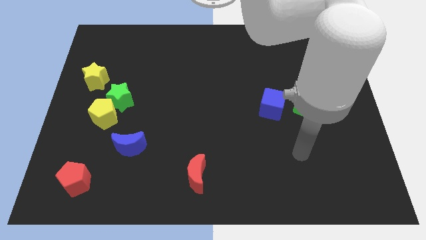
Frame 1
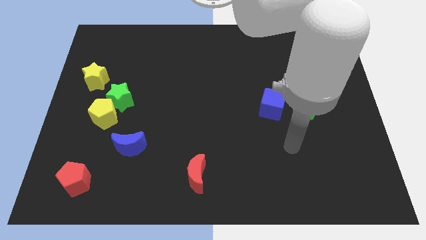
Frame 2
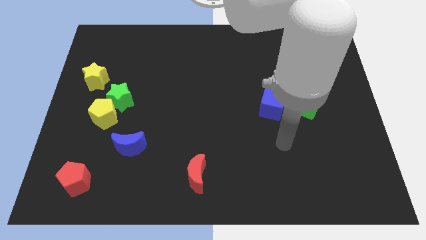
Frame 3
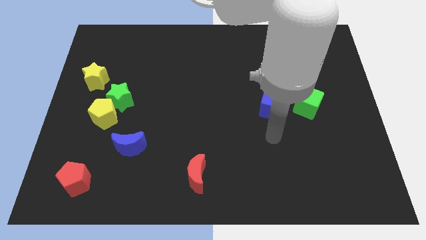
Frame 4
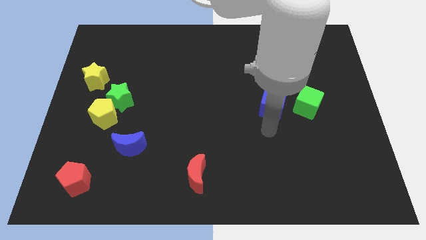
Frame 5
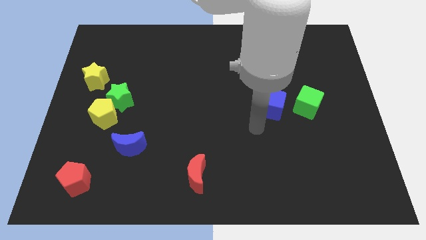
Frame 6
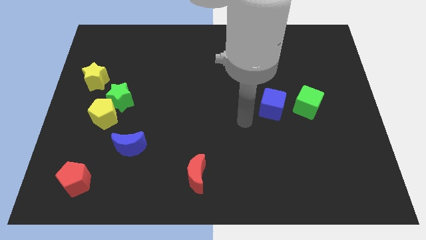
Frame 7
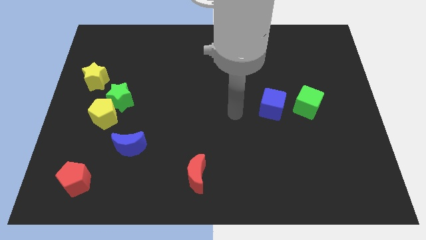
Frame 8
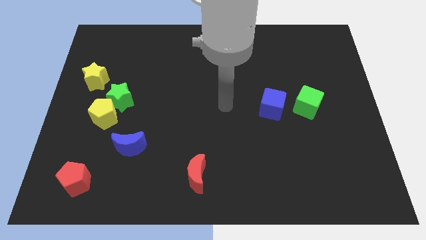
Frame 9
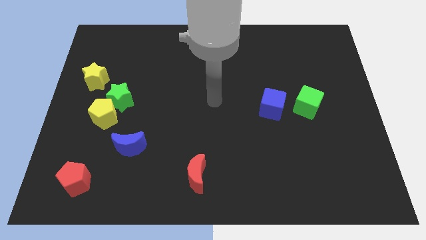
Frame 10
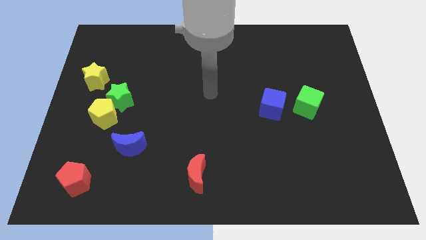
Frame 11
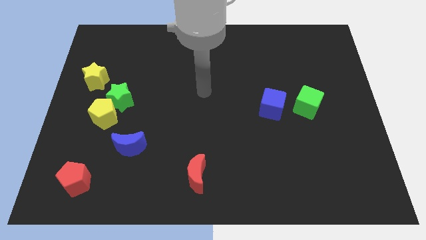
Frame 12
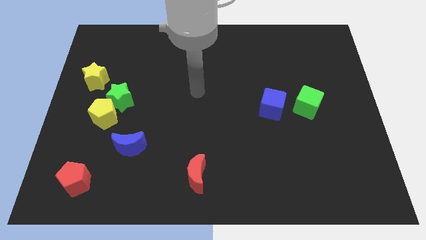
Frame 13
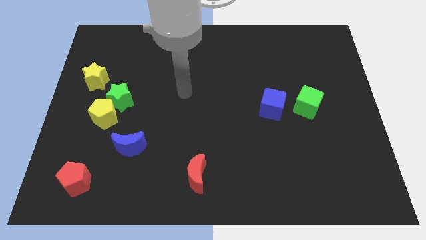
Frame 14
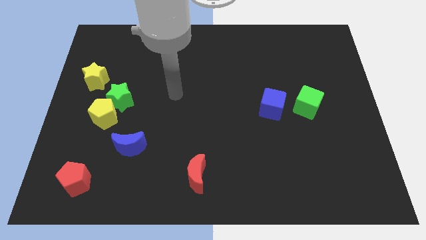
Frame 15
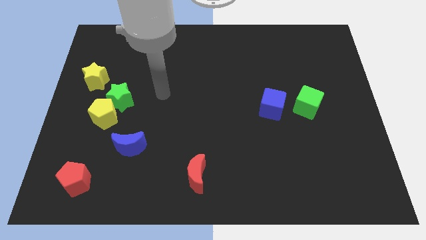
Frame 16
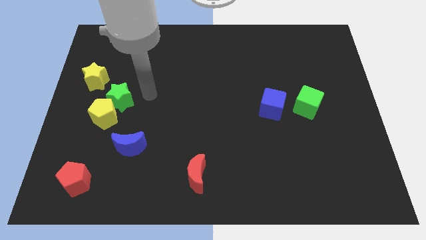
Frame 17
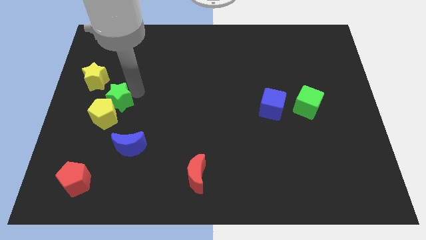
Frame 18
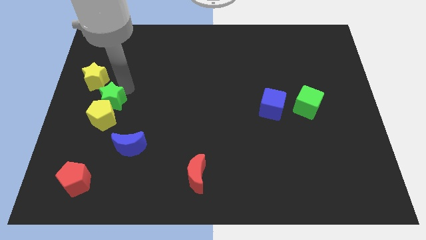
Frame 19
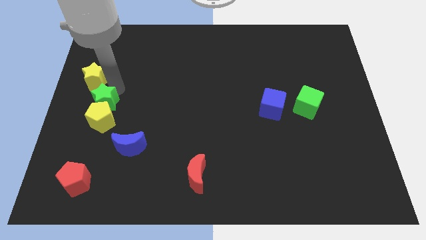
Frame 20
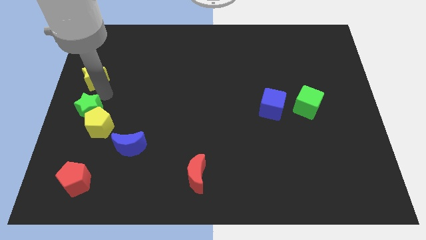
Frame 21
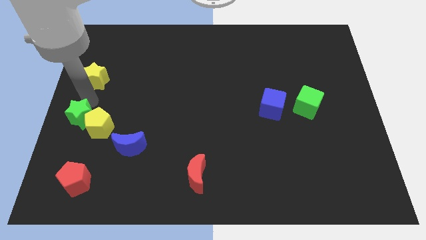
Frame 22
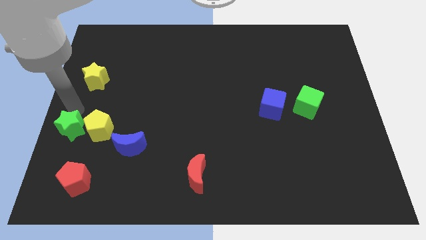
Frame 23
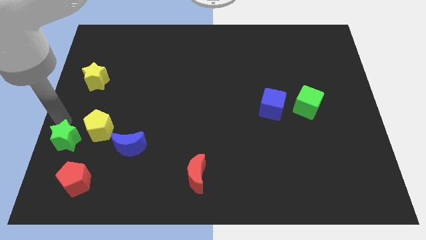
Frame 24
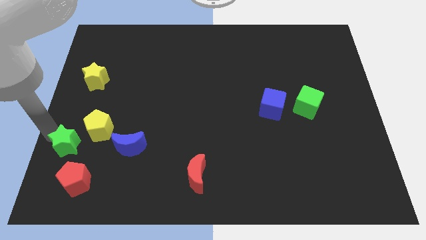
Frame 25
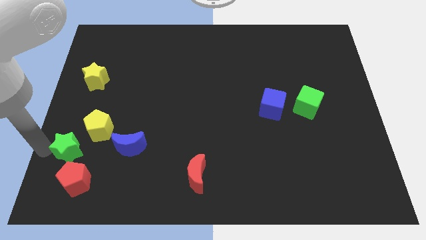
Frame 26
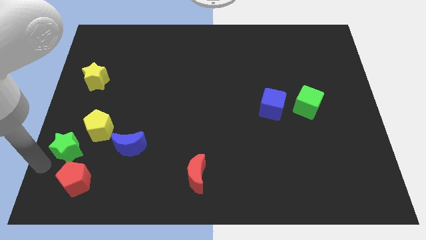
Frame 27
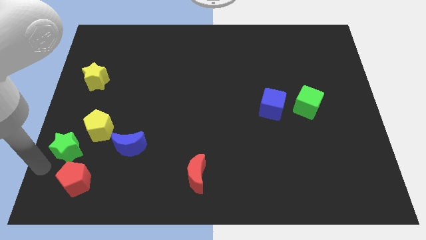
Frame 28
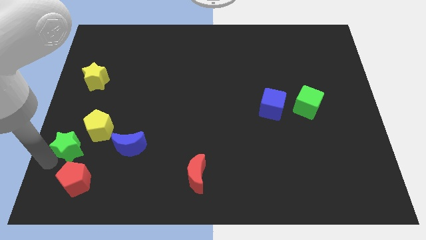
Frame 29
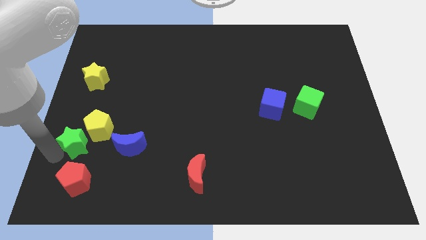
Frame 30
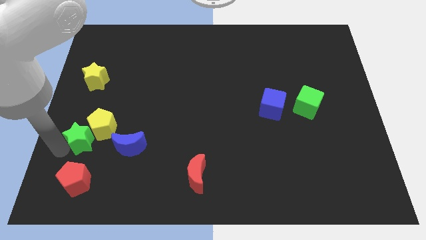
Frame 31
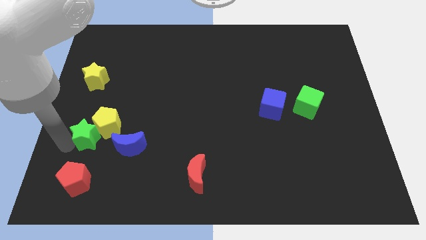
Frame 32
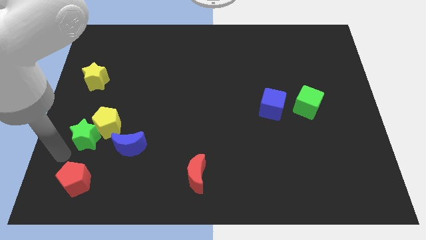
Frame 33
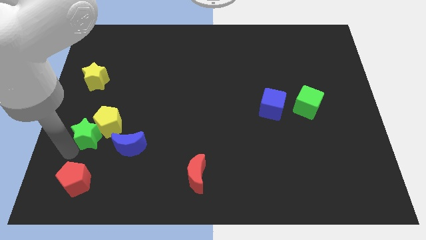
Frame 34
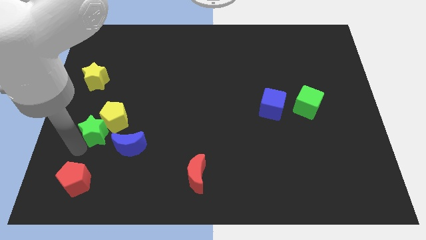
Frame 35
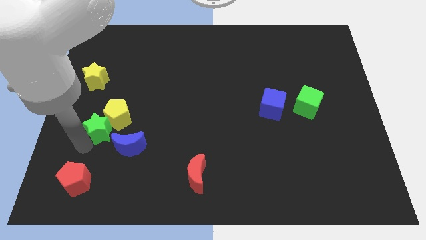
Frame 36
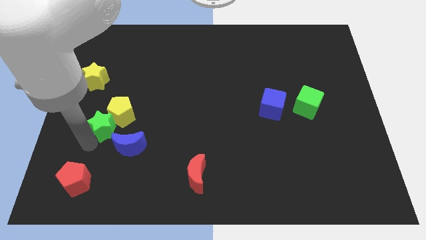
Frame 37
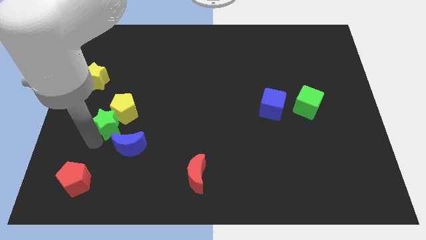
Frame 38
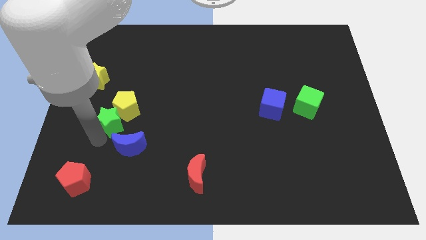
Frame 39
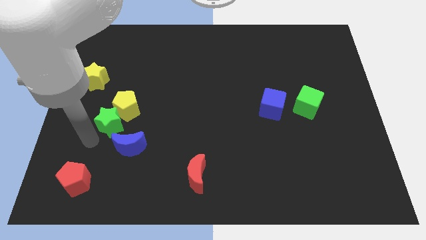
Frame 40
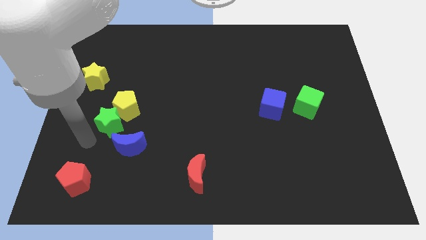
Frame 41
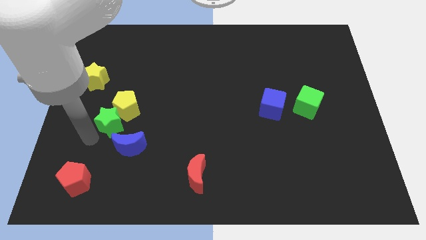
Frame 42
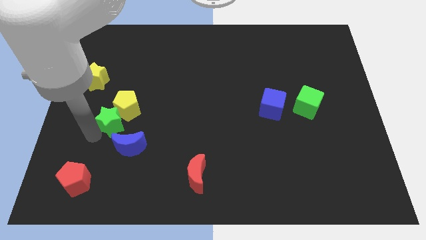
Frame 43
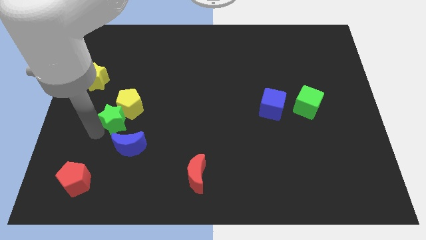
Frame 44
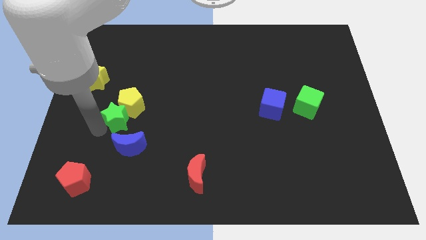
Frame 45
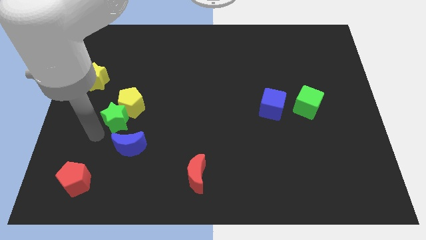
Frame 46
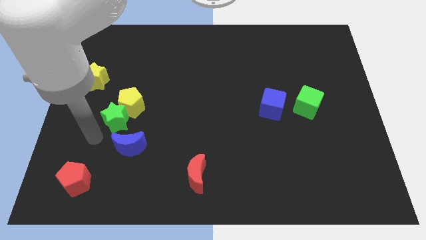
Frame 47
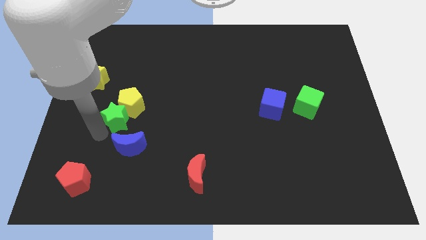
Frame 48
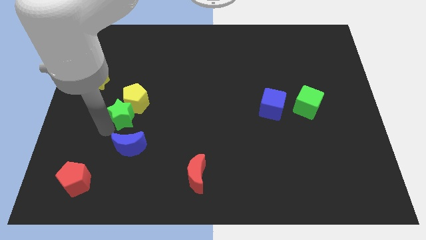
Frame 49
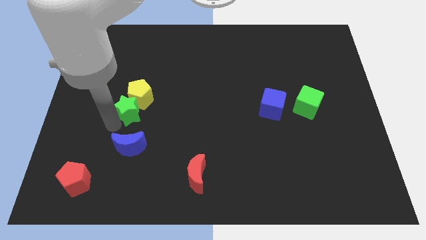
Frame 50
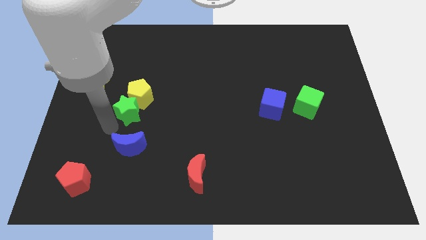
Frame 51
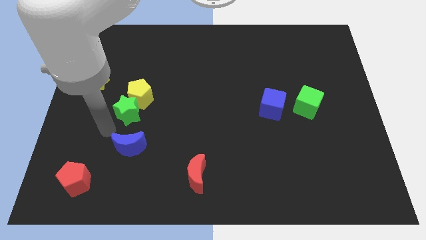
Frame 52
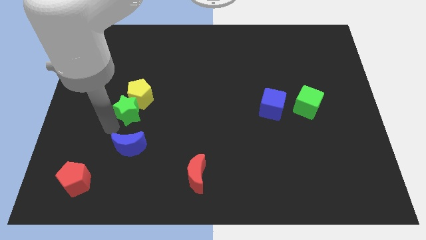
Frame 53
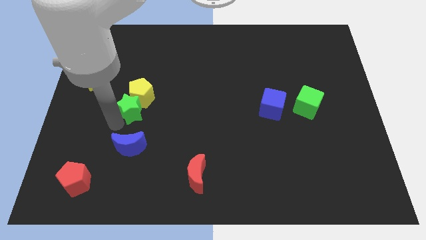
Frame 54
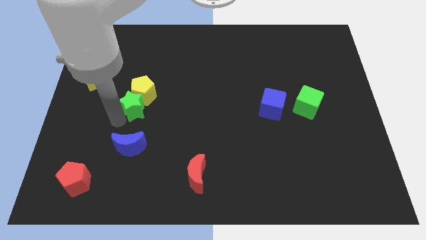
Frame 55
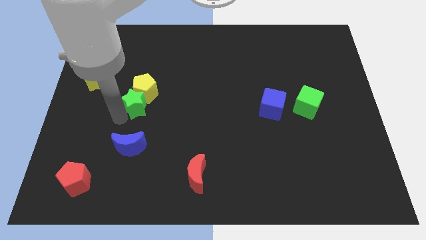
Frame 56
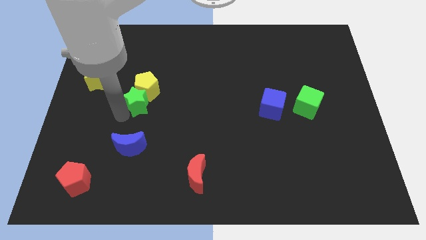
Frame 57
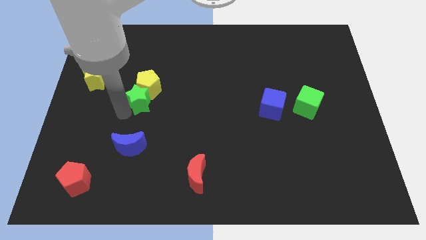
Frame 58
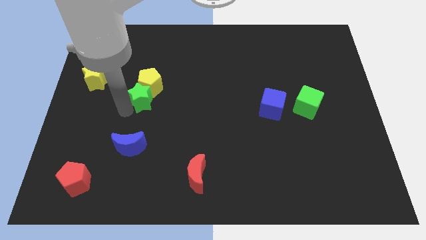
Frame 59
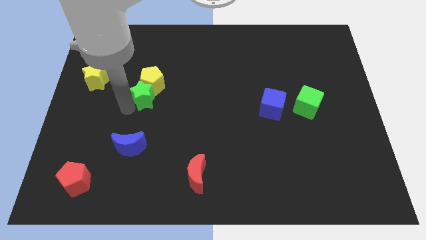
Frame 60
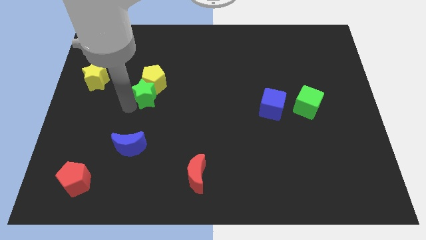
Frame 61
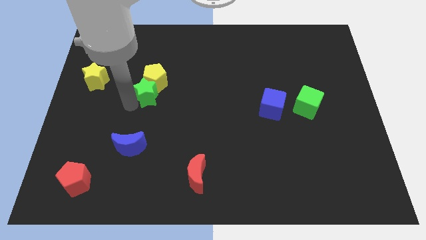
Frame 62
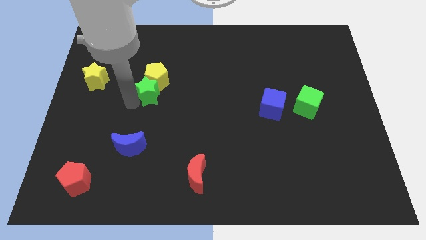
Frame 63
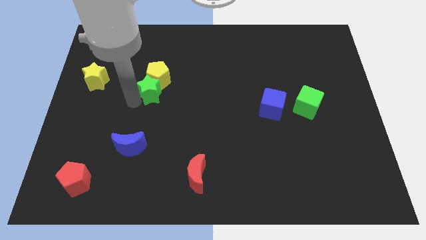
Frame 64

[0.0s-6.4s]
slightly slide the green star right

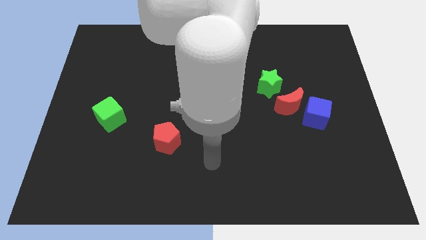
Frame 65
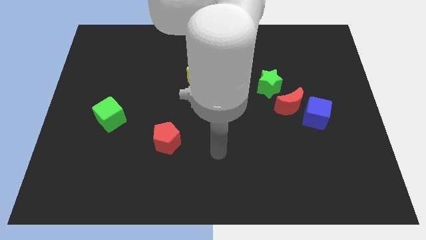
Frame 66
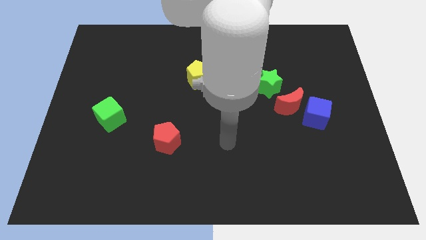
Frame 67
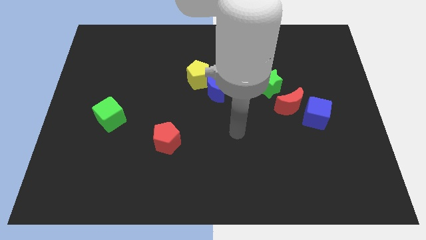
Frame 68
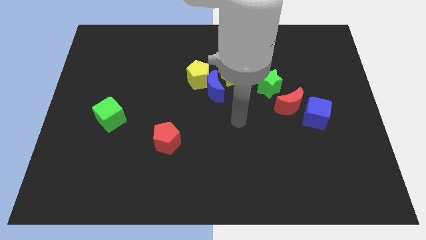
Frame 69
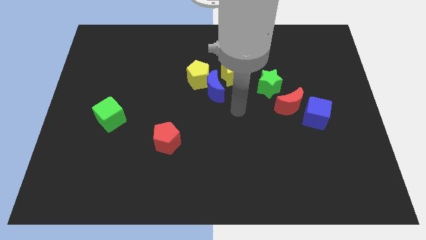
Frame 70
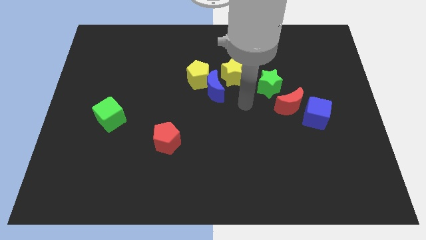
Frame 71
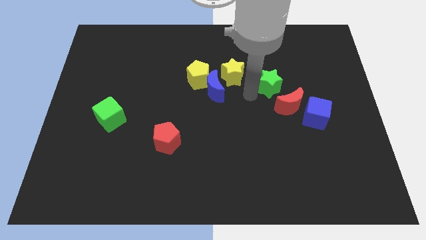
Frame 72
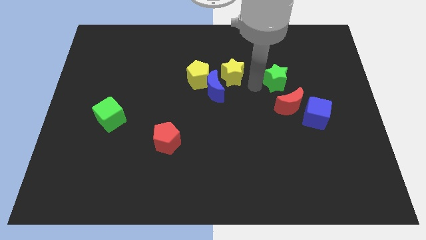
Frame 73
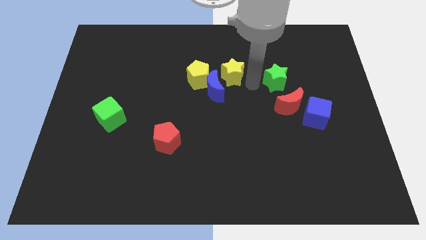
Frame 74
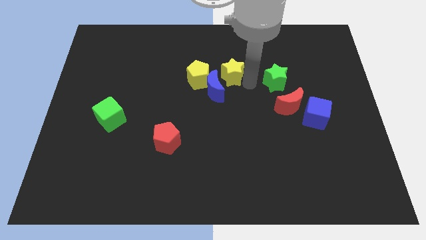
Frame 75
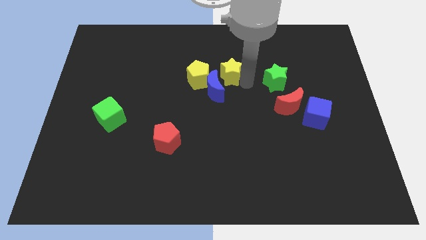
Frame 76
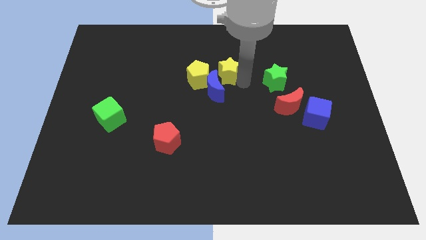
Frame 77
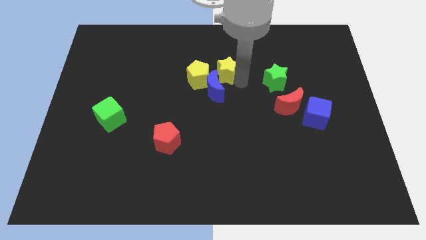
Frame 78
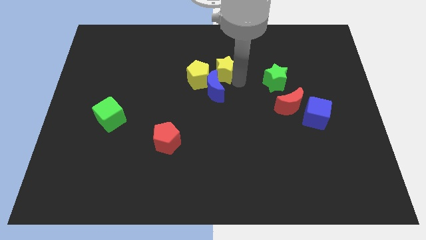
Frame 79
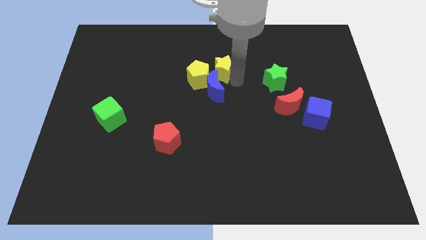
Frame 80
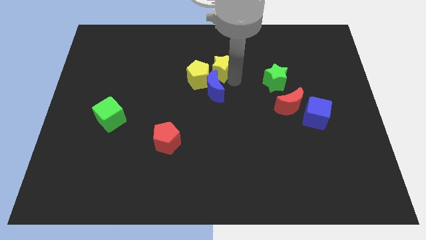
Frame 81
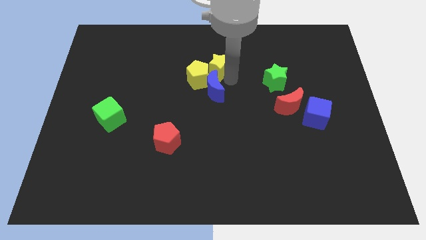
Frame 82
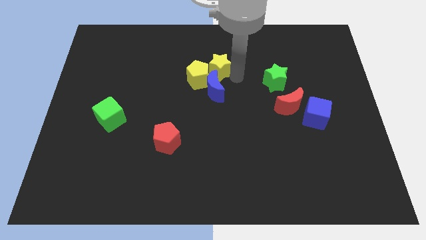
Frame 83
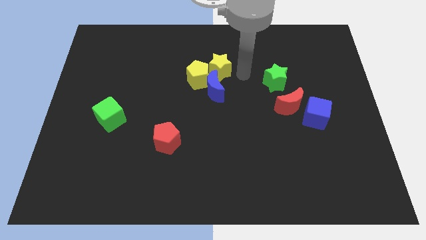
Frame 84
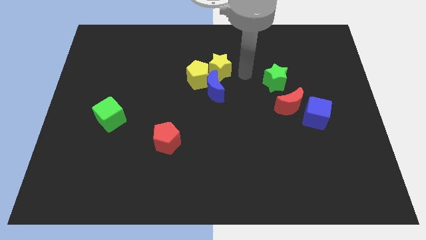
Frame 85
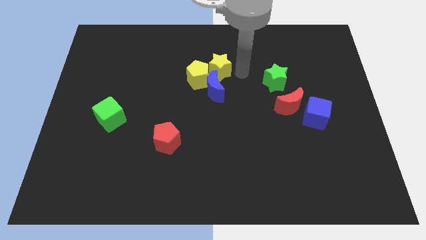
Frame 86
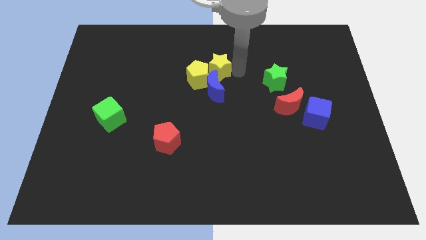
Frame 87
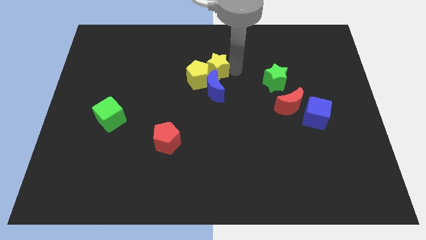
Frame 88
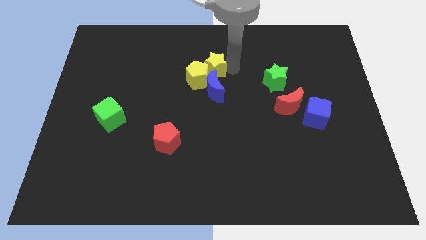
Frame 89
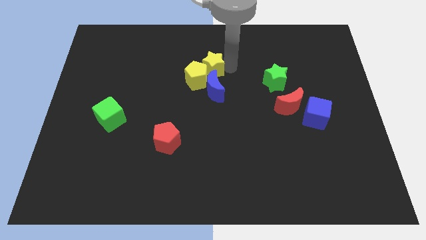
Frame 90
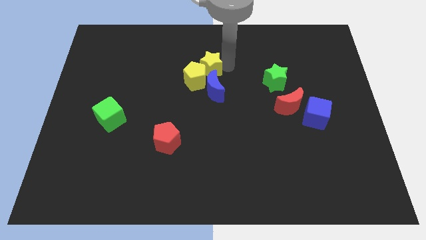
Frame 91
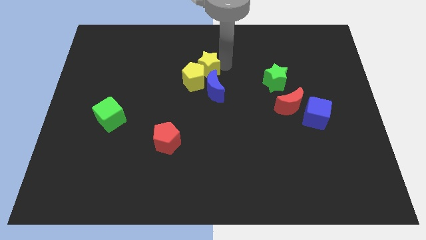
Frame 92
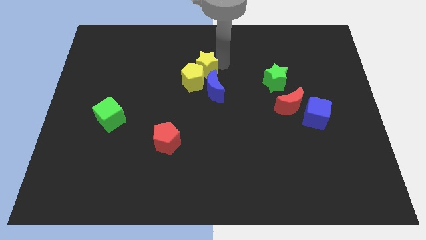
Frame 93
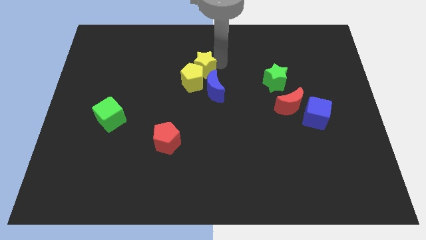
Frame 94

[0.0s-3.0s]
slightly slide the yellow star left
